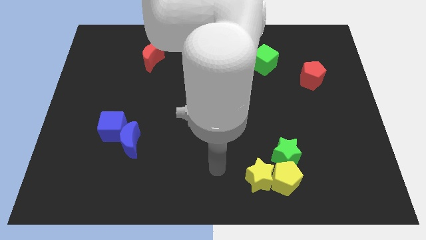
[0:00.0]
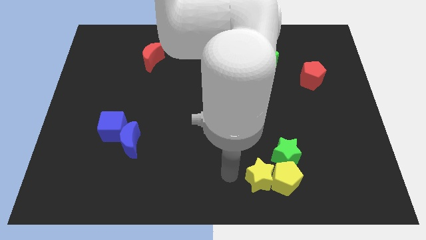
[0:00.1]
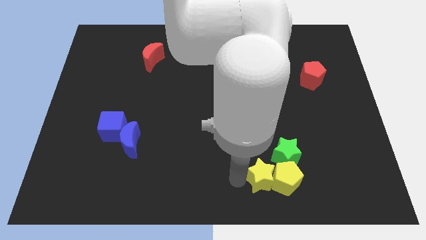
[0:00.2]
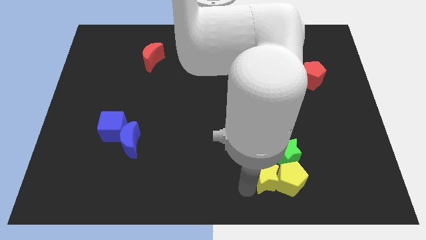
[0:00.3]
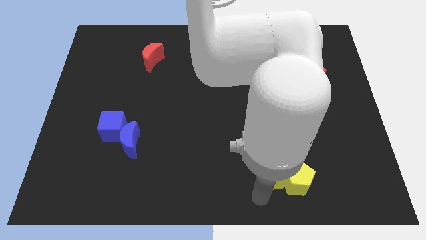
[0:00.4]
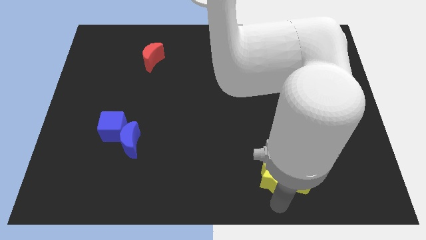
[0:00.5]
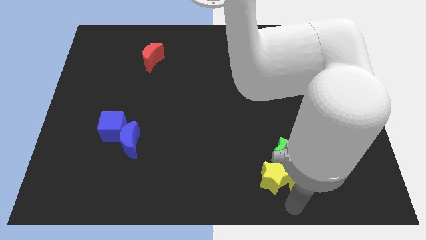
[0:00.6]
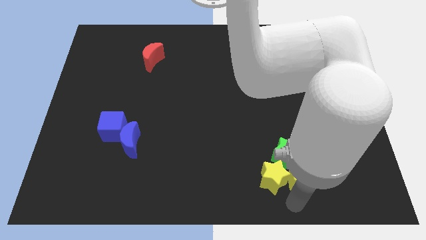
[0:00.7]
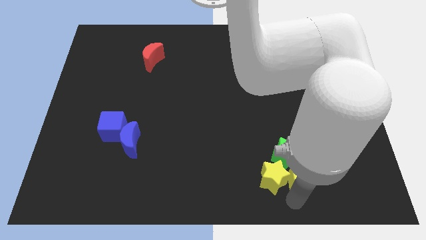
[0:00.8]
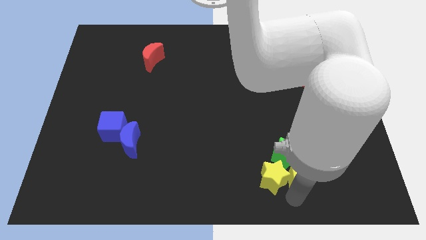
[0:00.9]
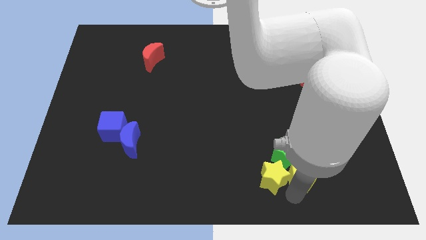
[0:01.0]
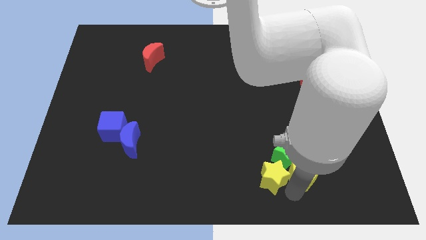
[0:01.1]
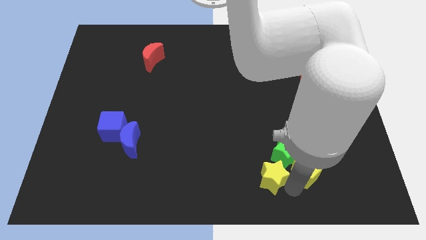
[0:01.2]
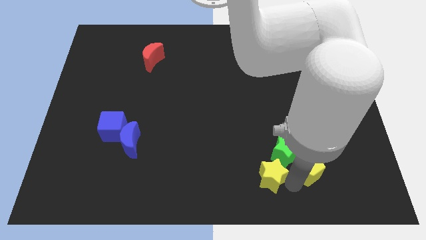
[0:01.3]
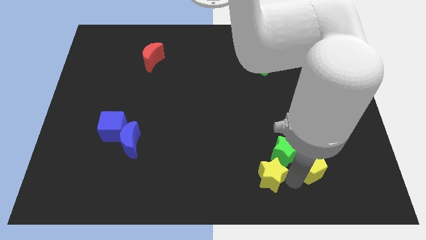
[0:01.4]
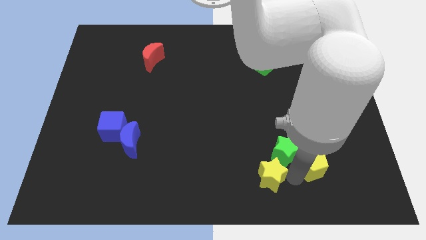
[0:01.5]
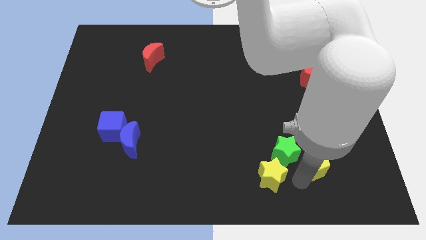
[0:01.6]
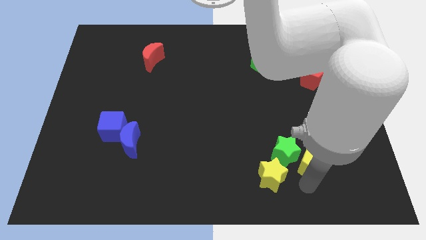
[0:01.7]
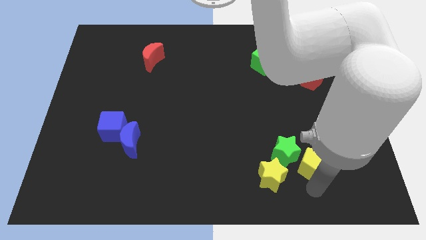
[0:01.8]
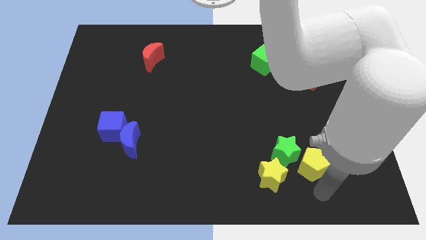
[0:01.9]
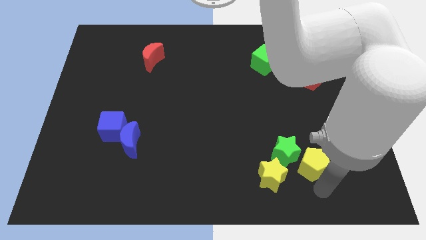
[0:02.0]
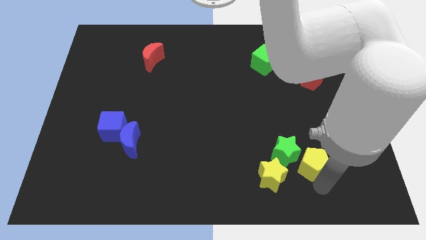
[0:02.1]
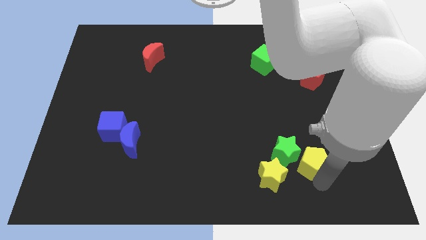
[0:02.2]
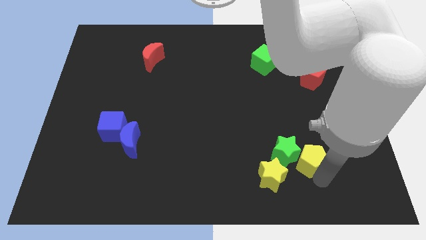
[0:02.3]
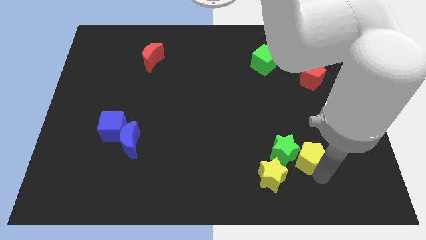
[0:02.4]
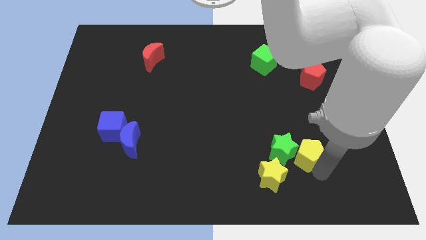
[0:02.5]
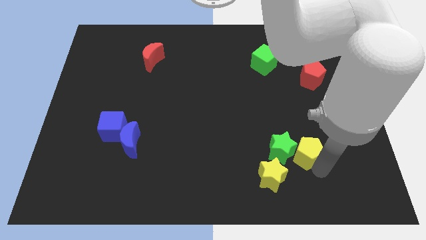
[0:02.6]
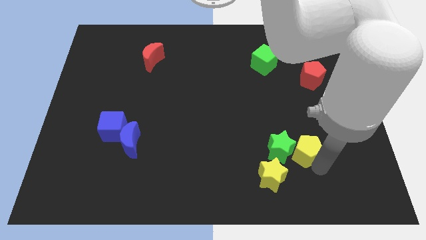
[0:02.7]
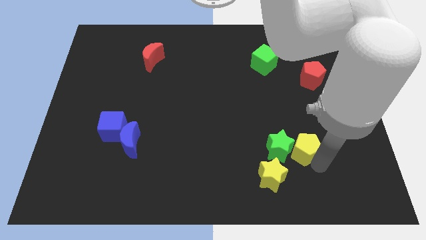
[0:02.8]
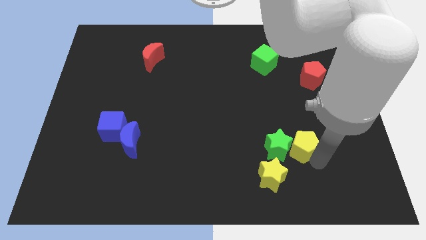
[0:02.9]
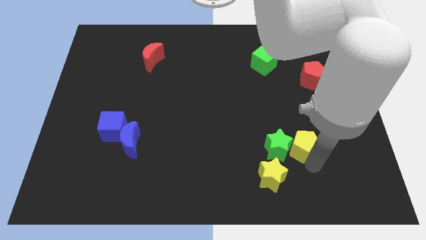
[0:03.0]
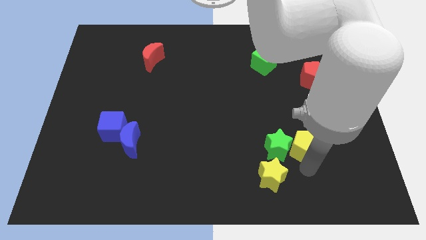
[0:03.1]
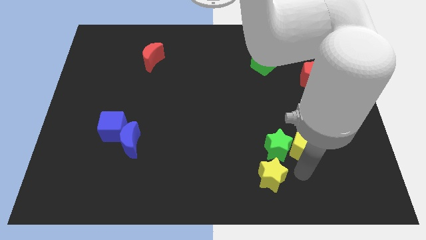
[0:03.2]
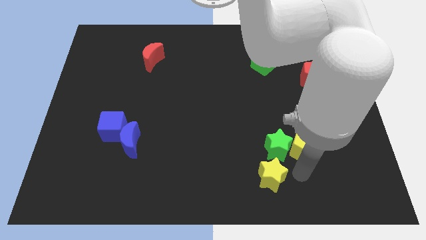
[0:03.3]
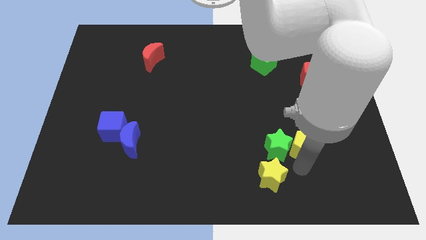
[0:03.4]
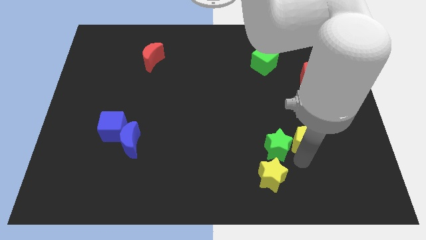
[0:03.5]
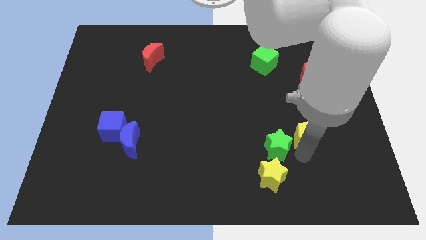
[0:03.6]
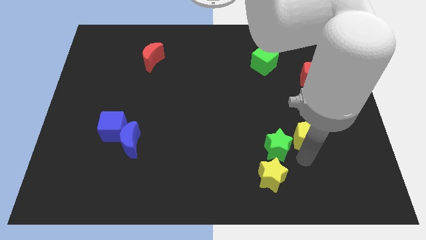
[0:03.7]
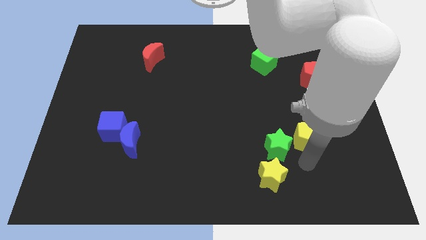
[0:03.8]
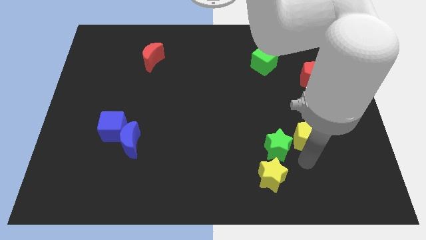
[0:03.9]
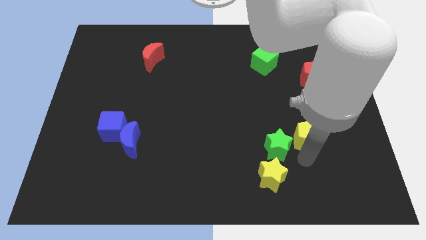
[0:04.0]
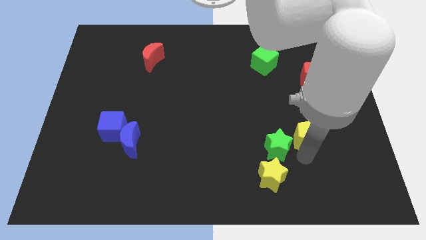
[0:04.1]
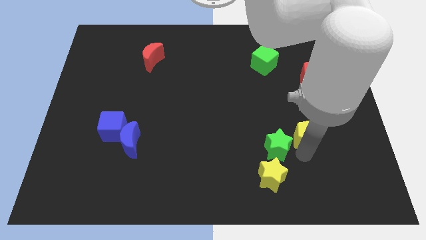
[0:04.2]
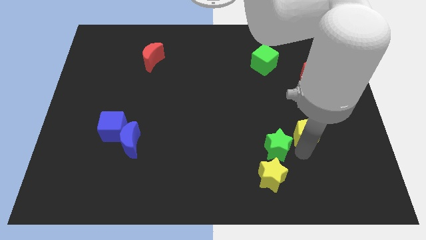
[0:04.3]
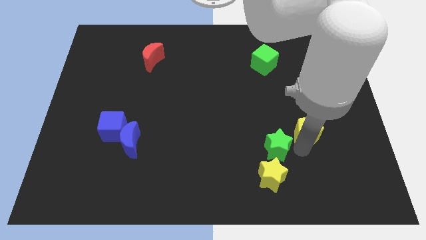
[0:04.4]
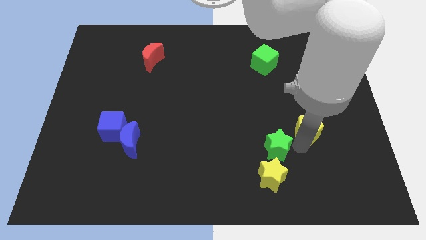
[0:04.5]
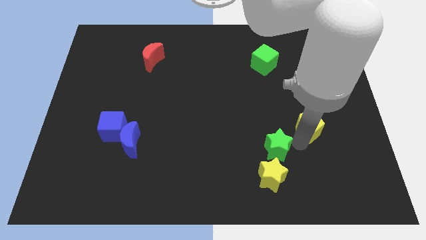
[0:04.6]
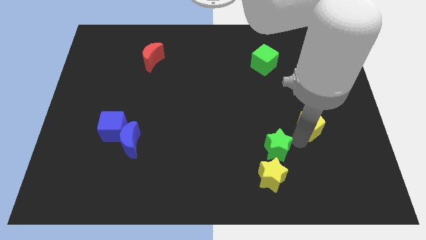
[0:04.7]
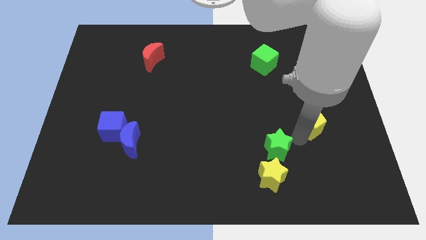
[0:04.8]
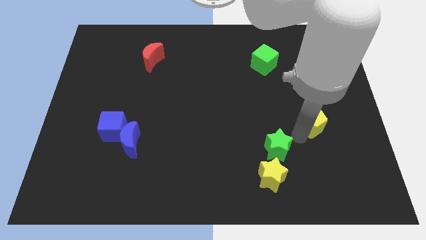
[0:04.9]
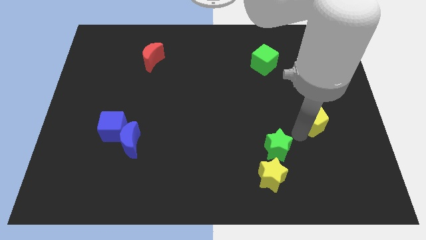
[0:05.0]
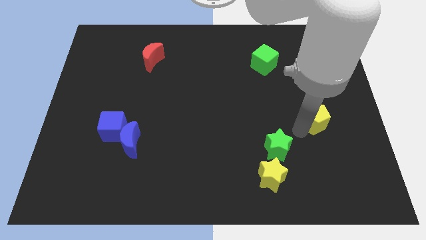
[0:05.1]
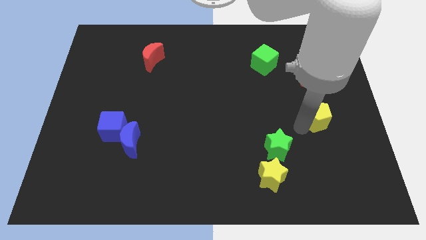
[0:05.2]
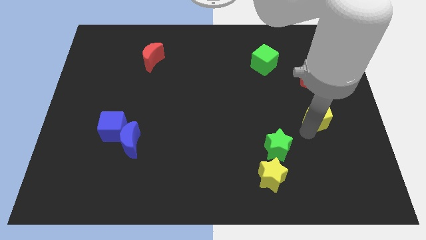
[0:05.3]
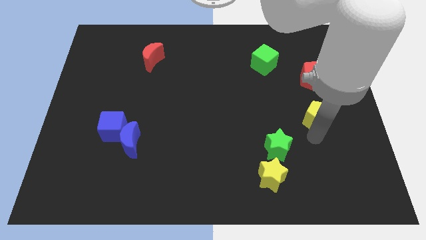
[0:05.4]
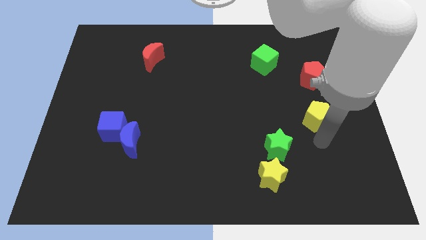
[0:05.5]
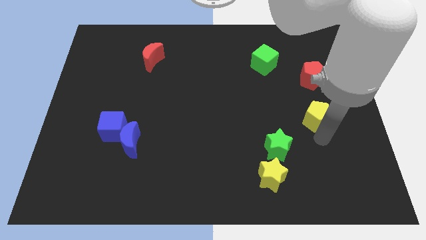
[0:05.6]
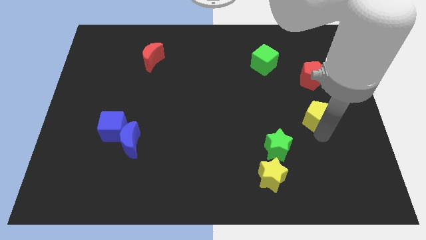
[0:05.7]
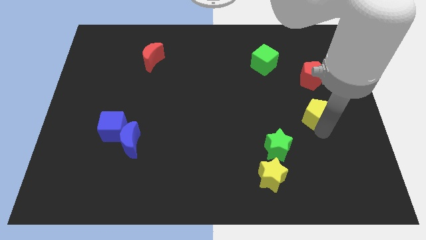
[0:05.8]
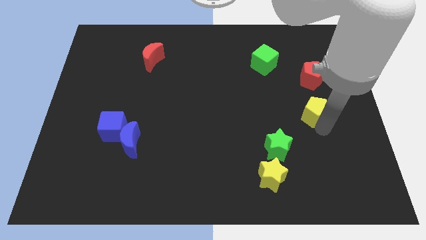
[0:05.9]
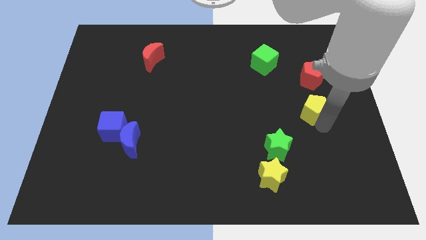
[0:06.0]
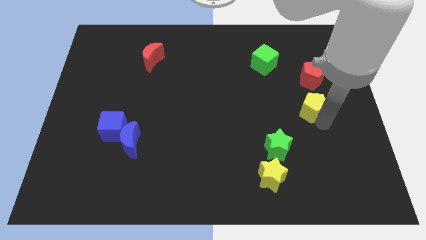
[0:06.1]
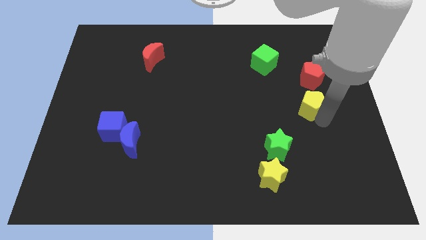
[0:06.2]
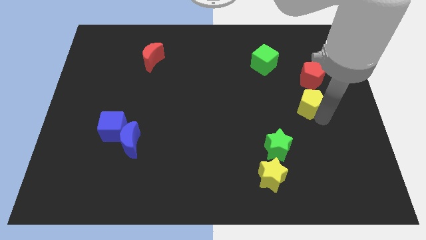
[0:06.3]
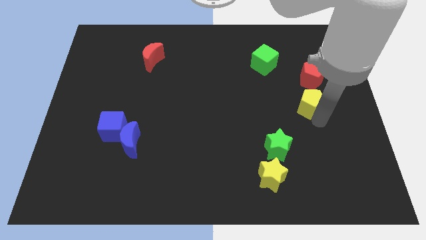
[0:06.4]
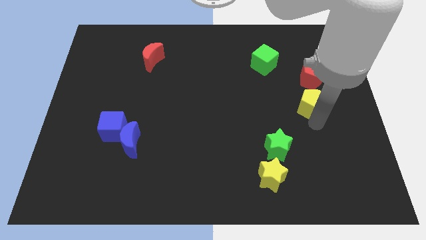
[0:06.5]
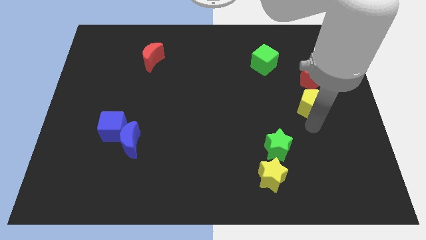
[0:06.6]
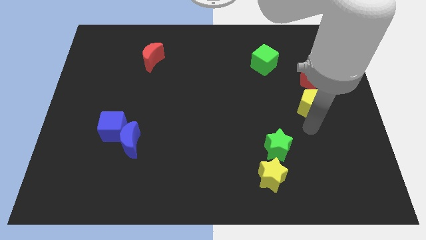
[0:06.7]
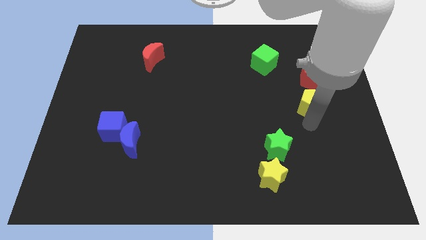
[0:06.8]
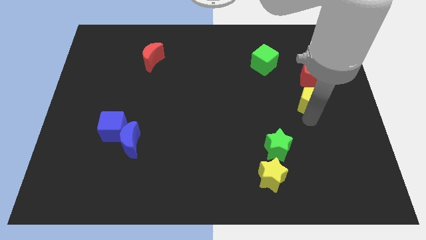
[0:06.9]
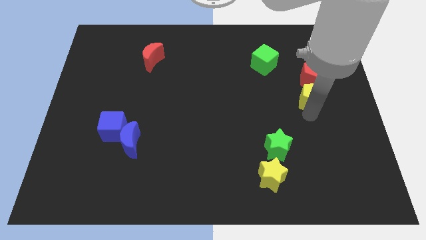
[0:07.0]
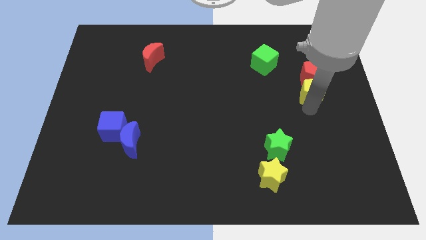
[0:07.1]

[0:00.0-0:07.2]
put the yellow pentagon towards the red pentagon

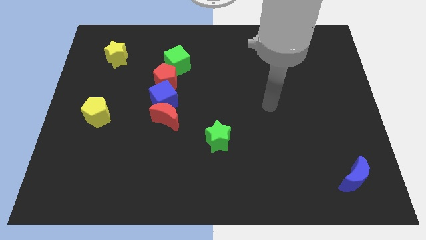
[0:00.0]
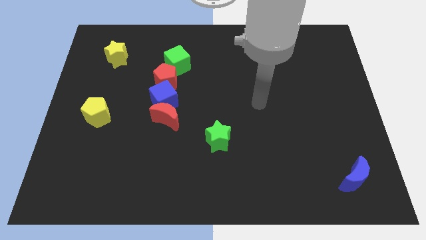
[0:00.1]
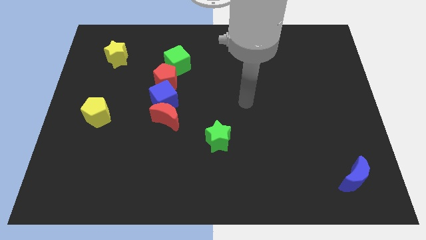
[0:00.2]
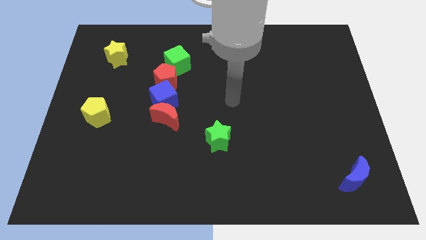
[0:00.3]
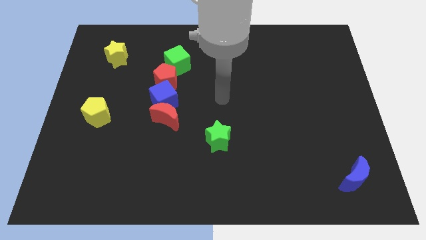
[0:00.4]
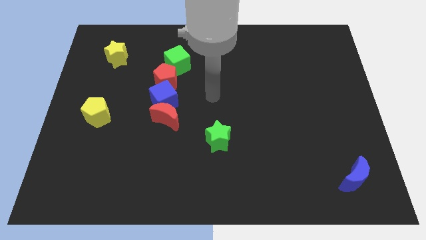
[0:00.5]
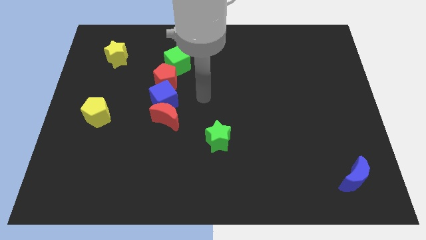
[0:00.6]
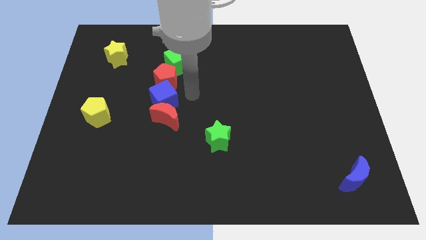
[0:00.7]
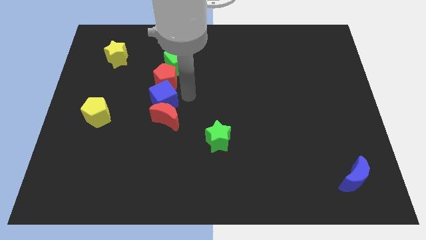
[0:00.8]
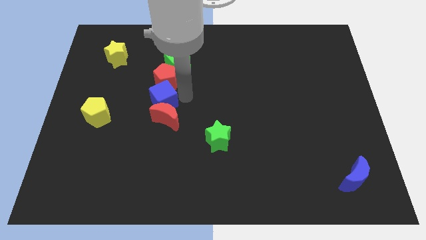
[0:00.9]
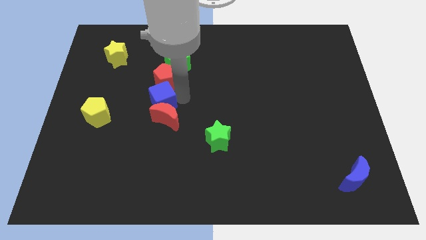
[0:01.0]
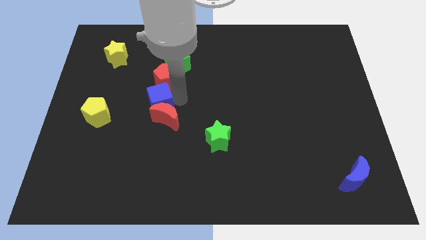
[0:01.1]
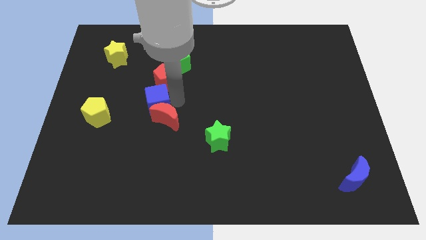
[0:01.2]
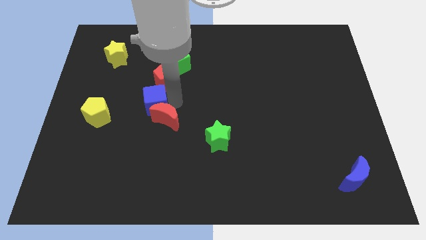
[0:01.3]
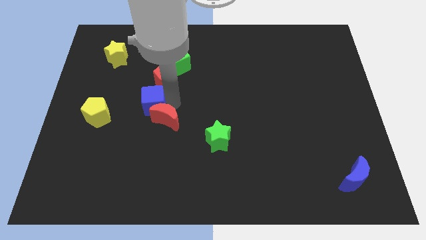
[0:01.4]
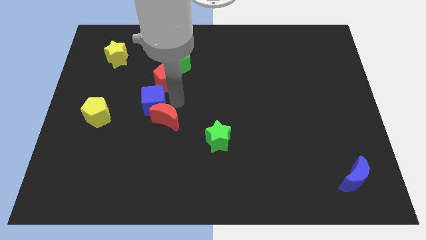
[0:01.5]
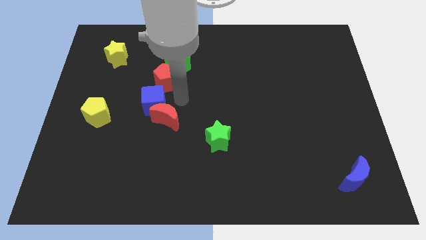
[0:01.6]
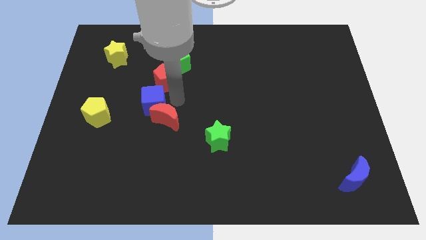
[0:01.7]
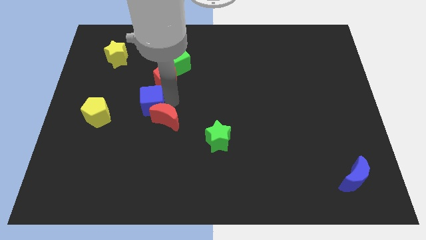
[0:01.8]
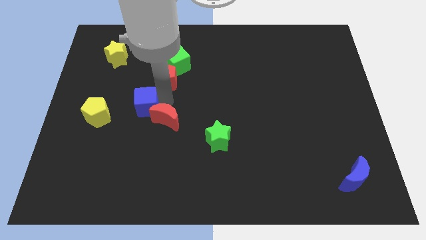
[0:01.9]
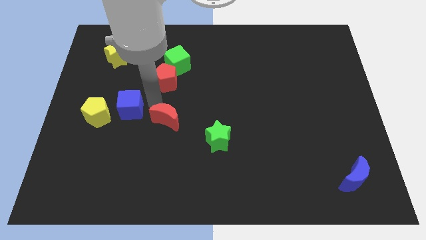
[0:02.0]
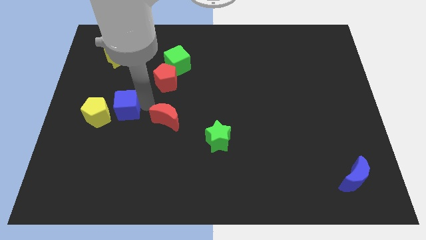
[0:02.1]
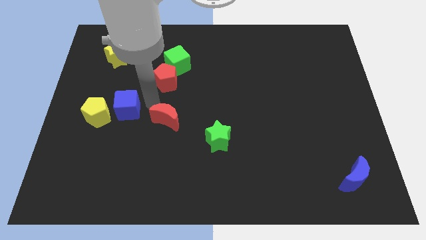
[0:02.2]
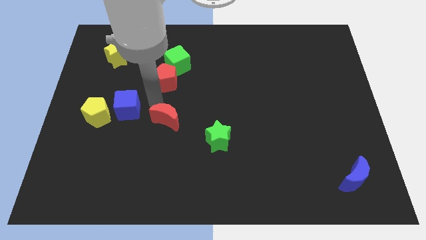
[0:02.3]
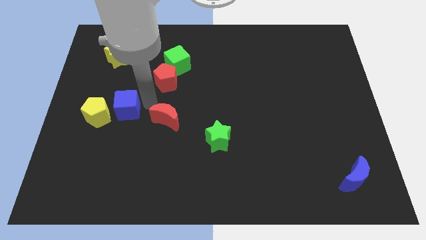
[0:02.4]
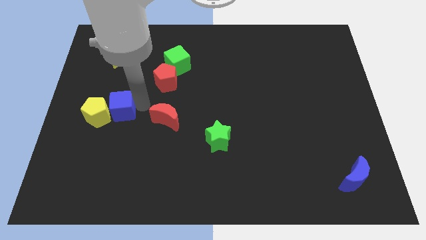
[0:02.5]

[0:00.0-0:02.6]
move the blue cube close to the yellow pentagon
